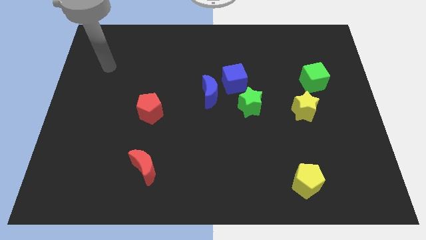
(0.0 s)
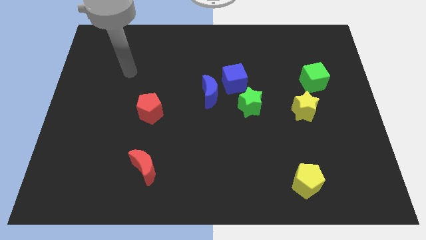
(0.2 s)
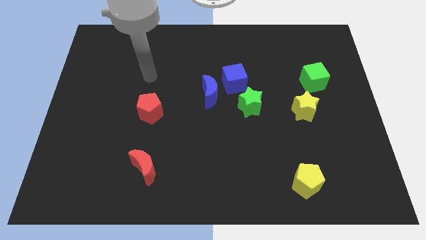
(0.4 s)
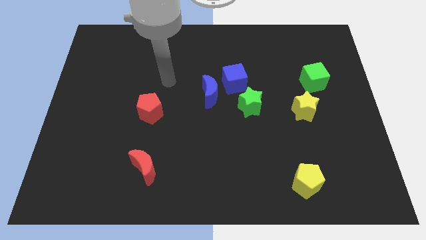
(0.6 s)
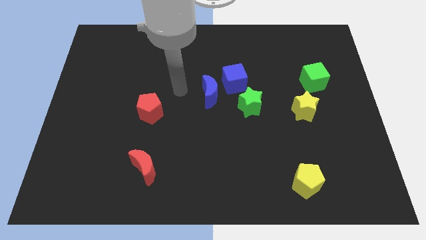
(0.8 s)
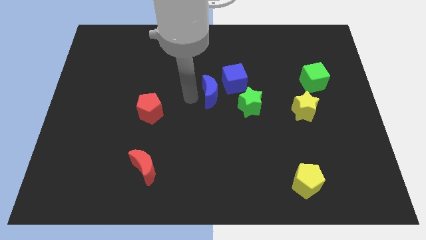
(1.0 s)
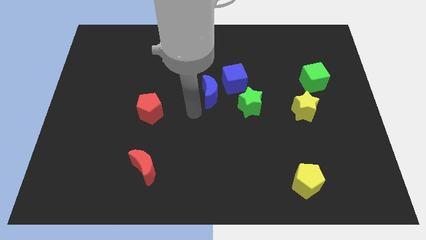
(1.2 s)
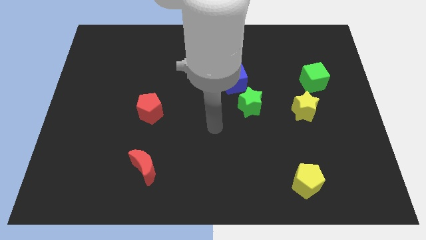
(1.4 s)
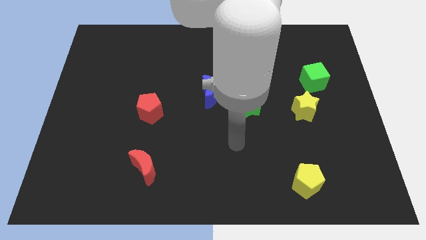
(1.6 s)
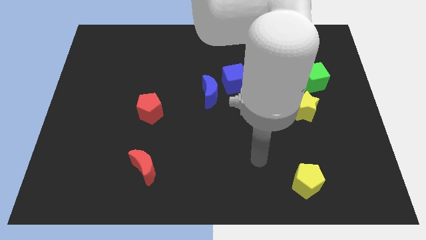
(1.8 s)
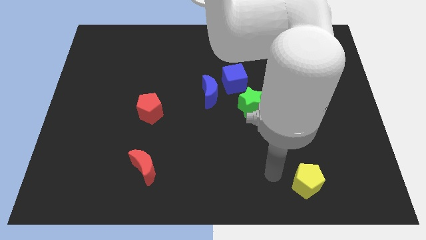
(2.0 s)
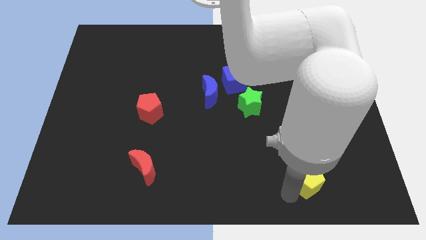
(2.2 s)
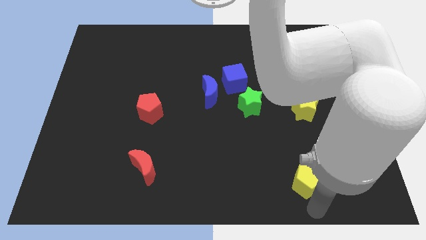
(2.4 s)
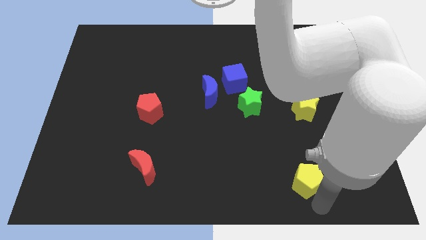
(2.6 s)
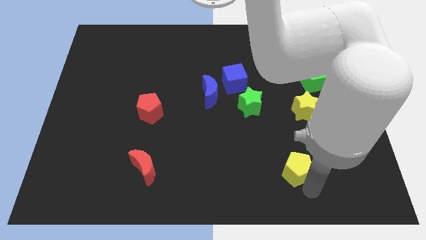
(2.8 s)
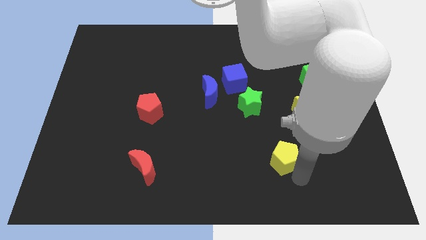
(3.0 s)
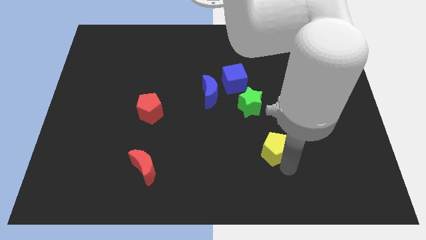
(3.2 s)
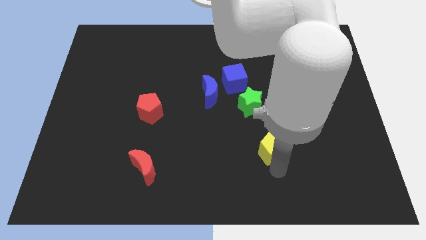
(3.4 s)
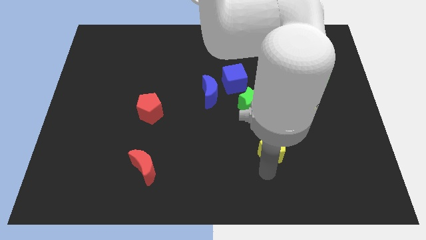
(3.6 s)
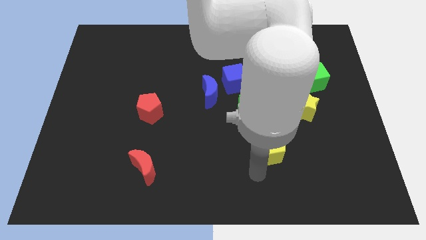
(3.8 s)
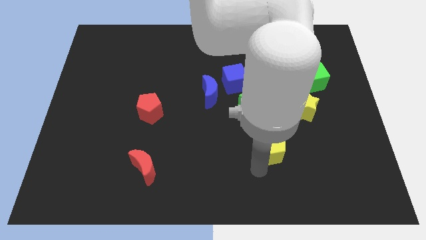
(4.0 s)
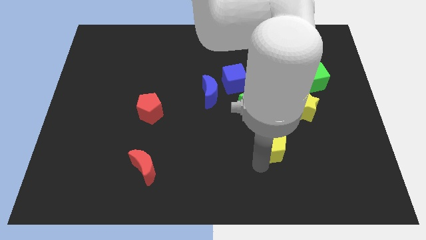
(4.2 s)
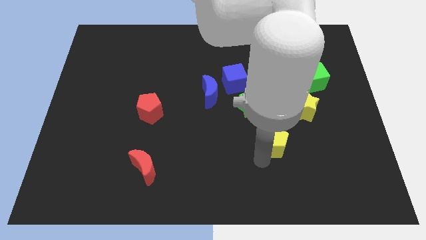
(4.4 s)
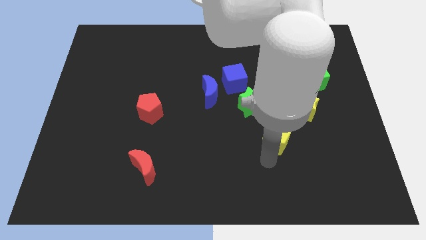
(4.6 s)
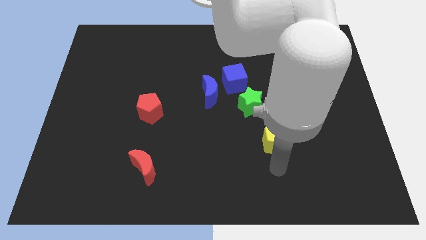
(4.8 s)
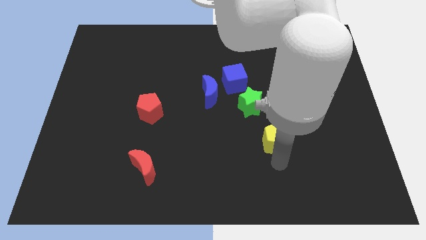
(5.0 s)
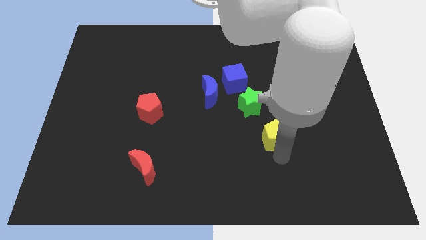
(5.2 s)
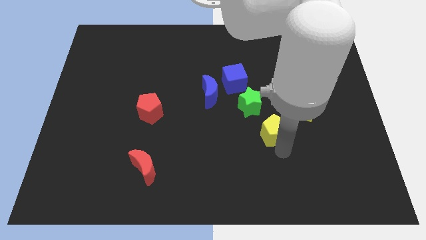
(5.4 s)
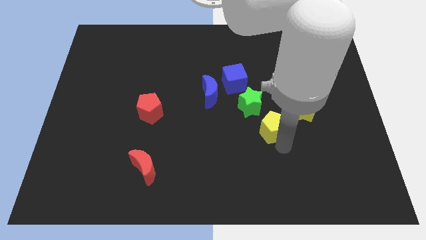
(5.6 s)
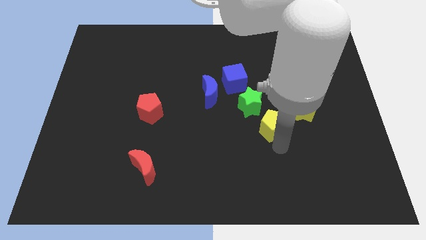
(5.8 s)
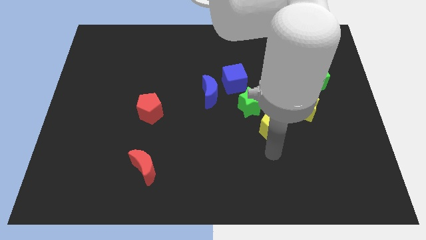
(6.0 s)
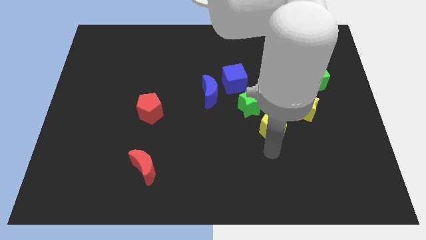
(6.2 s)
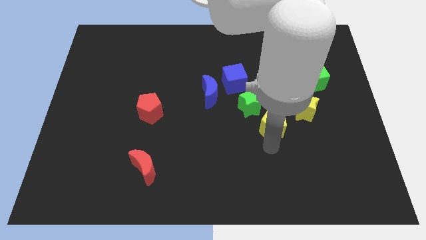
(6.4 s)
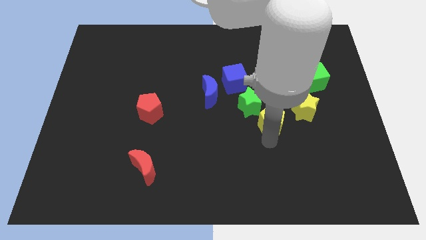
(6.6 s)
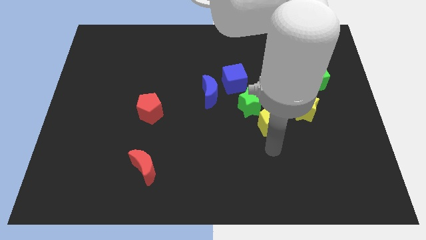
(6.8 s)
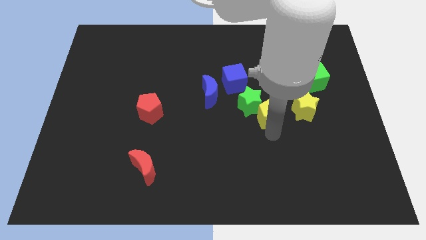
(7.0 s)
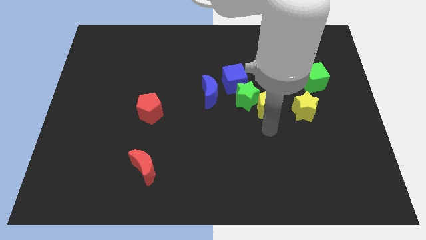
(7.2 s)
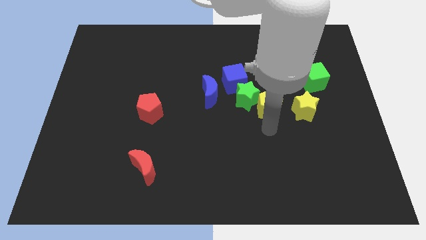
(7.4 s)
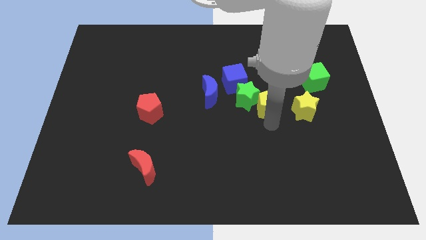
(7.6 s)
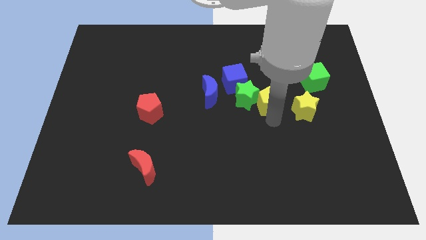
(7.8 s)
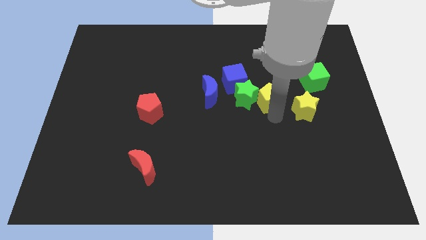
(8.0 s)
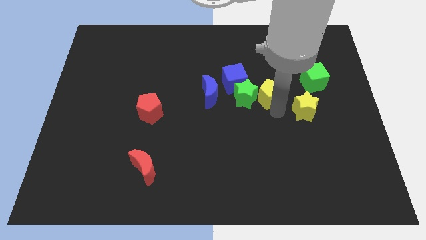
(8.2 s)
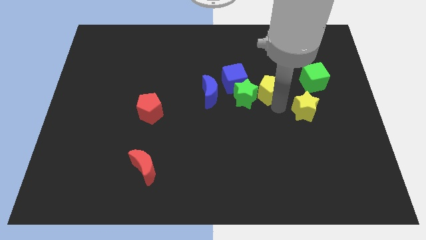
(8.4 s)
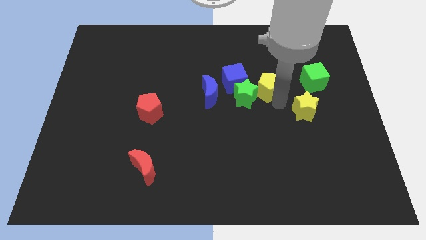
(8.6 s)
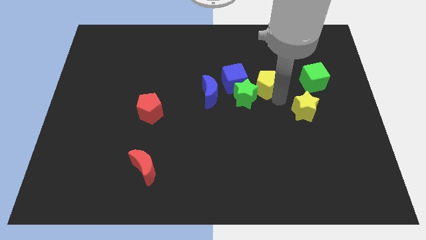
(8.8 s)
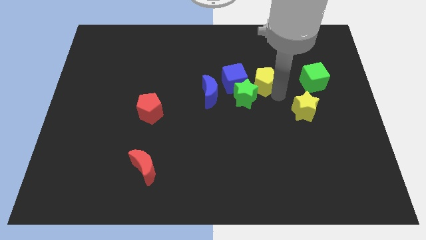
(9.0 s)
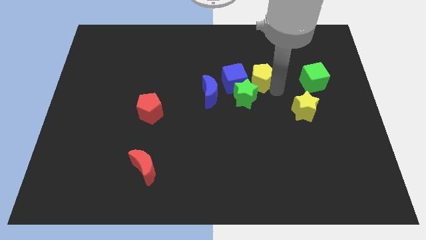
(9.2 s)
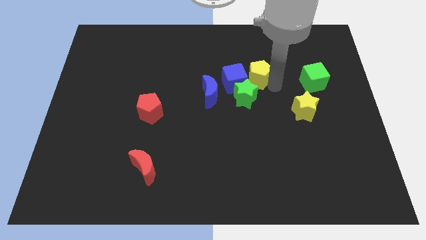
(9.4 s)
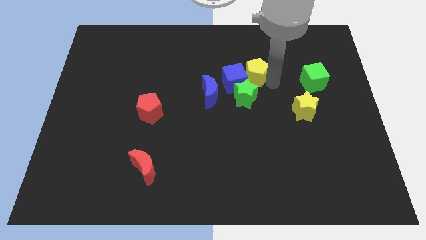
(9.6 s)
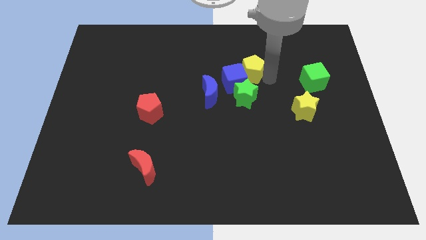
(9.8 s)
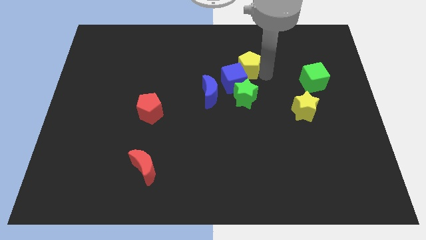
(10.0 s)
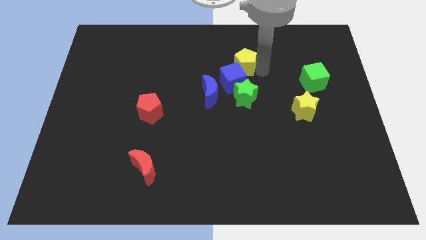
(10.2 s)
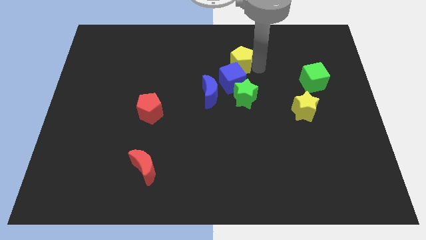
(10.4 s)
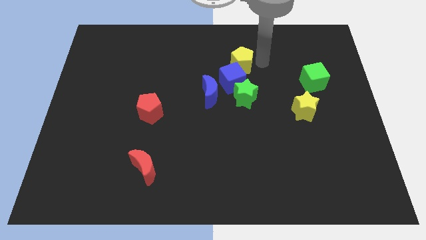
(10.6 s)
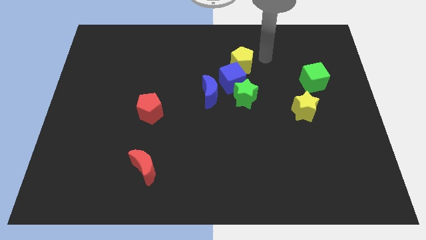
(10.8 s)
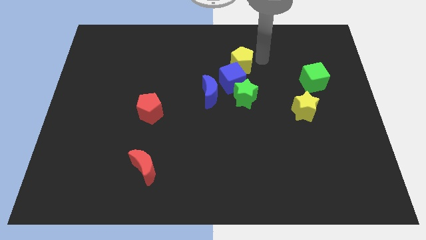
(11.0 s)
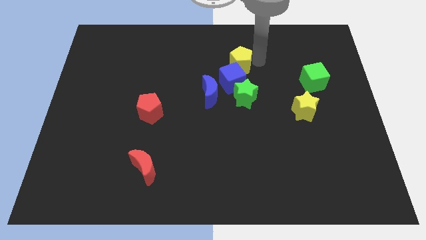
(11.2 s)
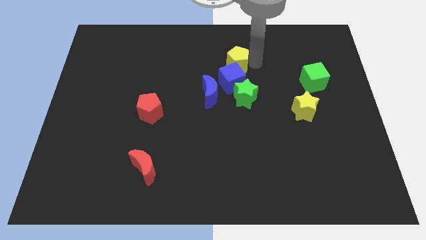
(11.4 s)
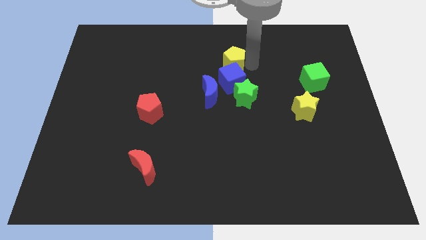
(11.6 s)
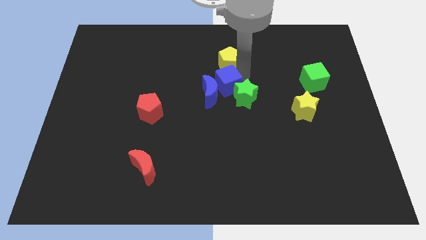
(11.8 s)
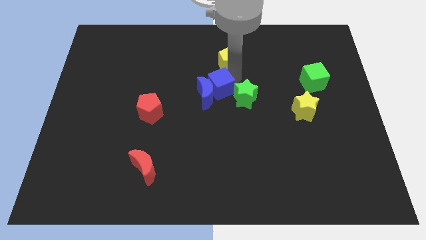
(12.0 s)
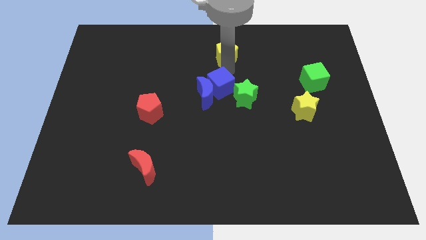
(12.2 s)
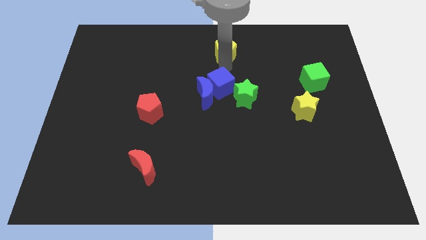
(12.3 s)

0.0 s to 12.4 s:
push the yellow pentagon to the top side
